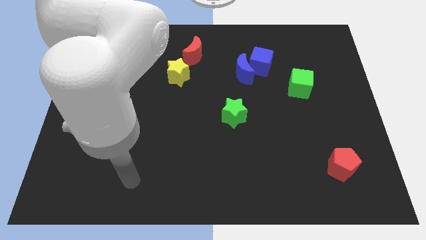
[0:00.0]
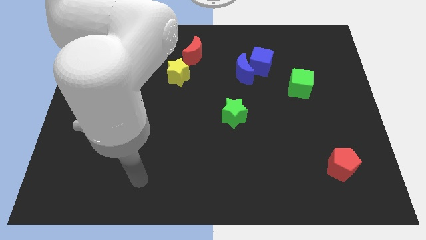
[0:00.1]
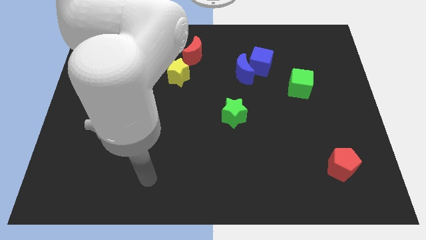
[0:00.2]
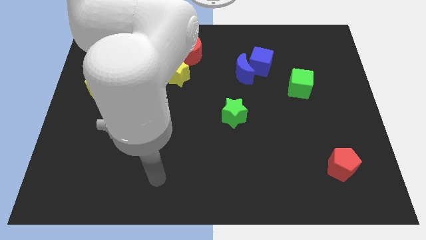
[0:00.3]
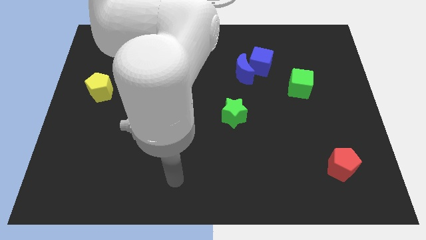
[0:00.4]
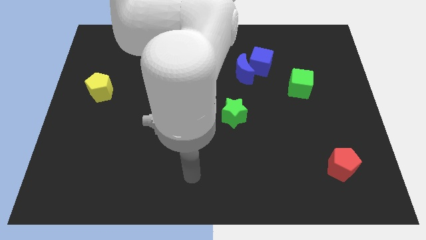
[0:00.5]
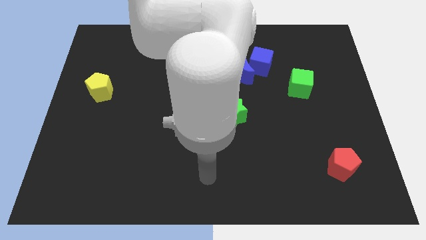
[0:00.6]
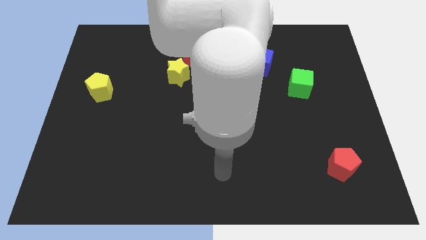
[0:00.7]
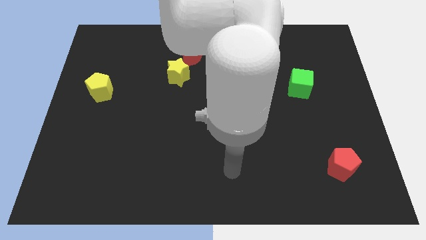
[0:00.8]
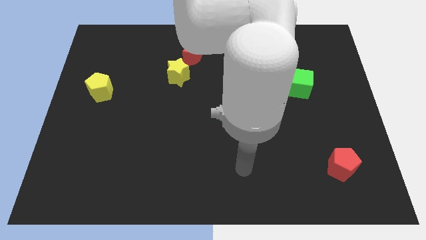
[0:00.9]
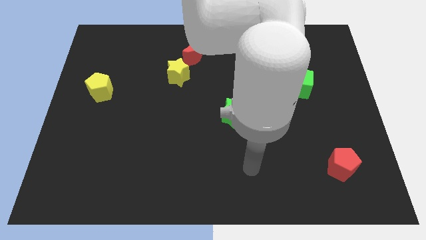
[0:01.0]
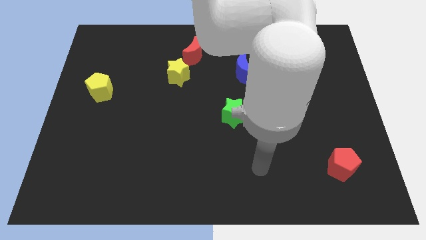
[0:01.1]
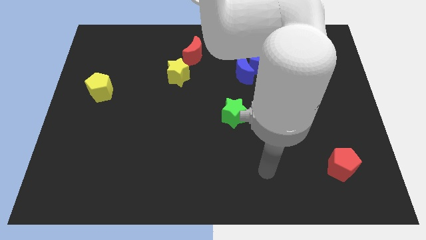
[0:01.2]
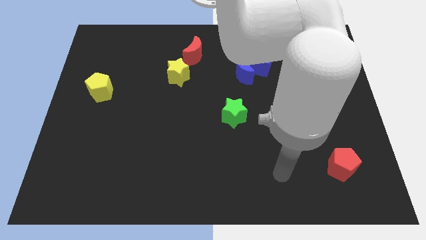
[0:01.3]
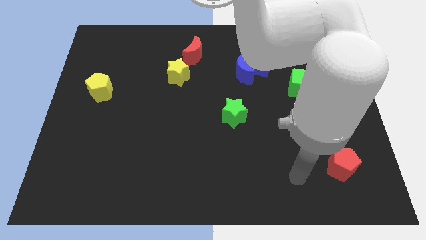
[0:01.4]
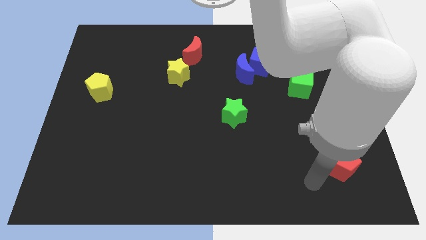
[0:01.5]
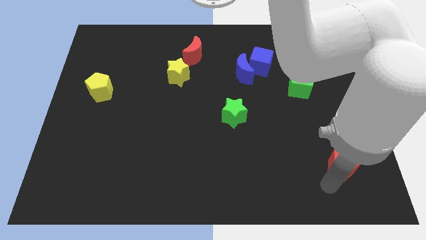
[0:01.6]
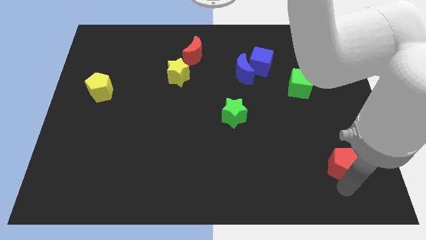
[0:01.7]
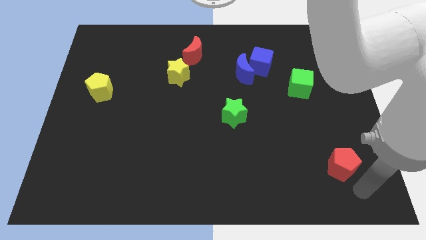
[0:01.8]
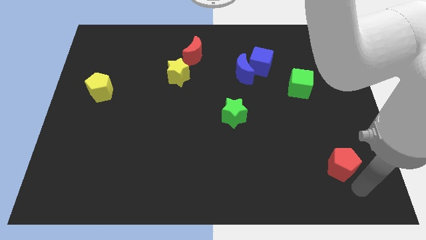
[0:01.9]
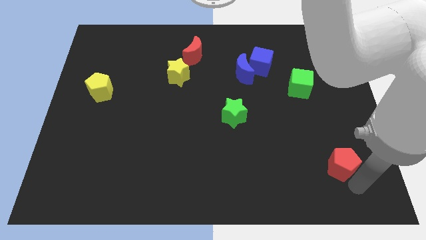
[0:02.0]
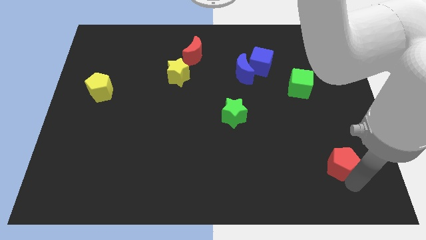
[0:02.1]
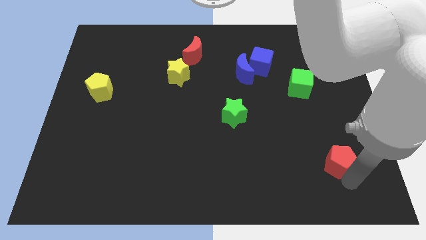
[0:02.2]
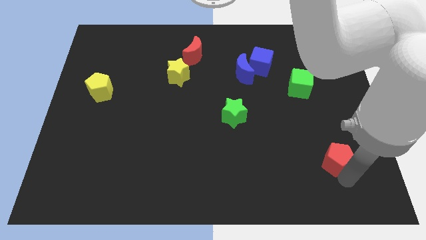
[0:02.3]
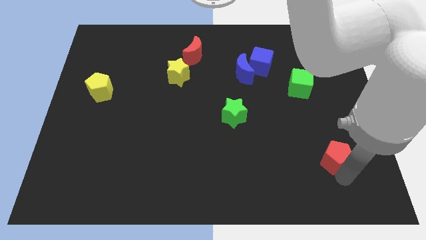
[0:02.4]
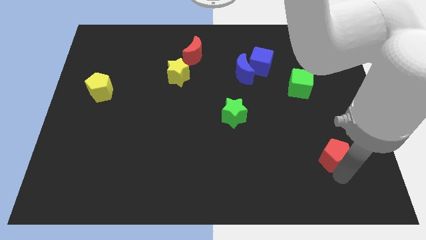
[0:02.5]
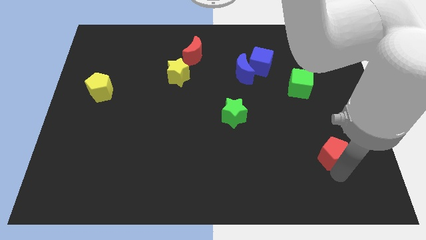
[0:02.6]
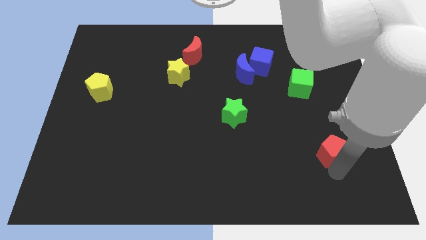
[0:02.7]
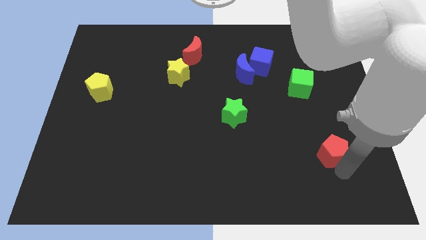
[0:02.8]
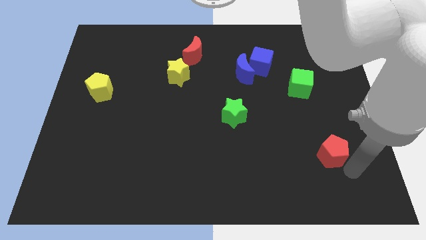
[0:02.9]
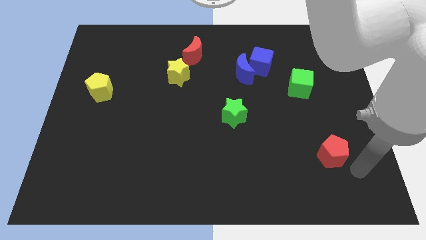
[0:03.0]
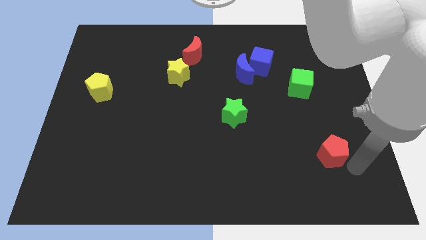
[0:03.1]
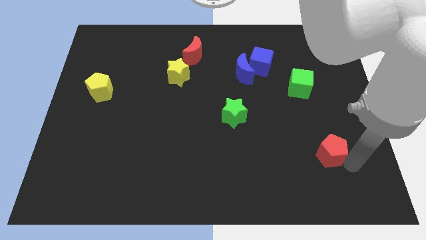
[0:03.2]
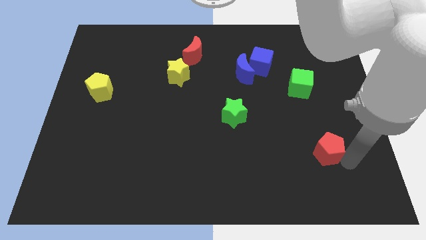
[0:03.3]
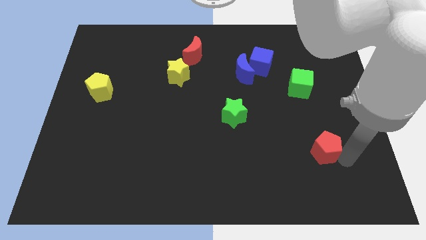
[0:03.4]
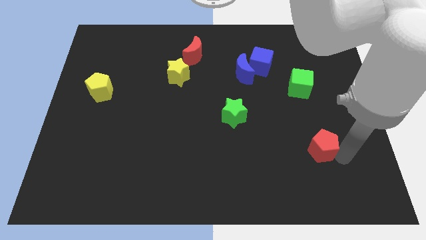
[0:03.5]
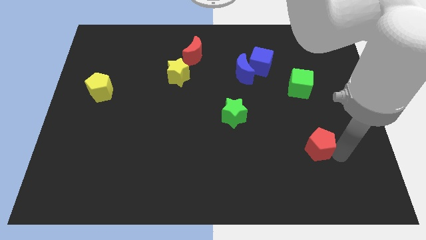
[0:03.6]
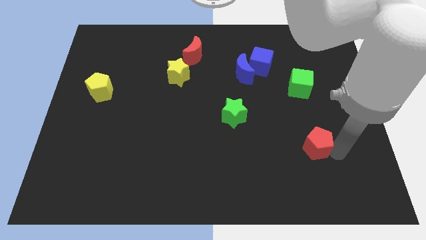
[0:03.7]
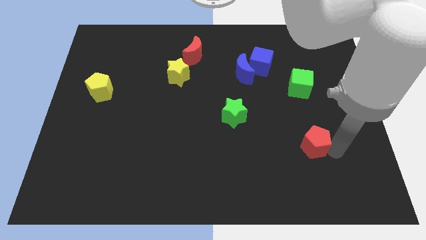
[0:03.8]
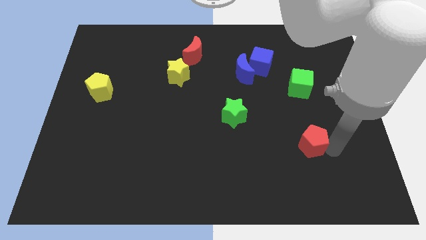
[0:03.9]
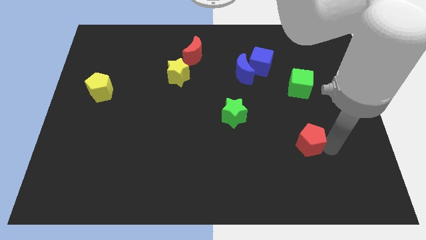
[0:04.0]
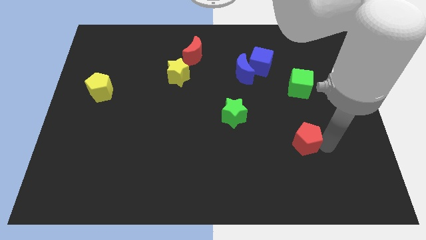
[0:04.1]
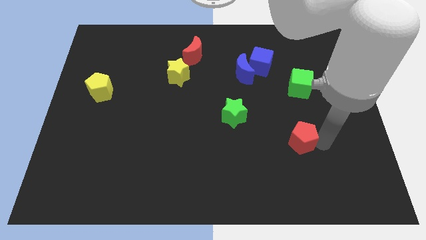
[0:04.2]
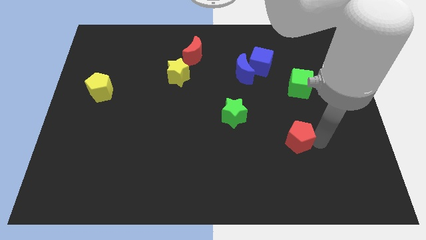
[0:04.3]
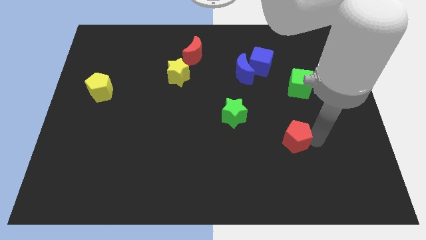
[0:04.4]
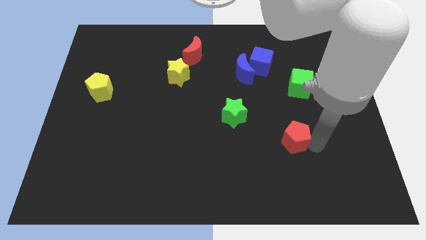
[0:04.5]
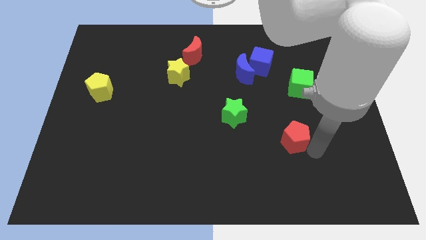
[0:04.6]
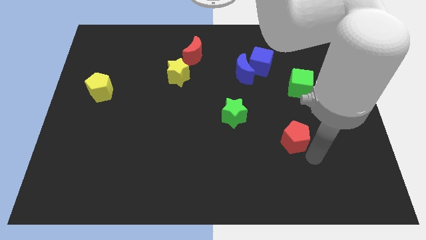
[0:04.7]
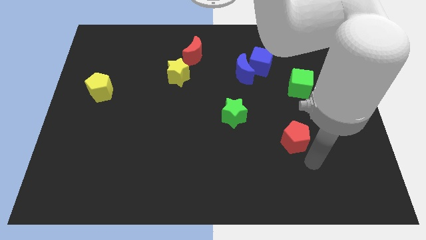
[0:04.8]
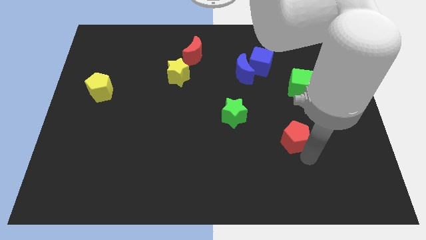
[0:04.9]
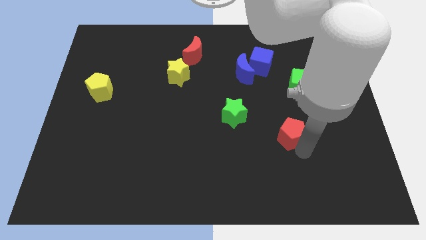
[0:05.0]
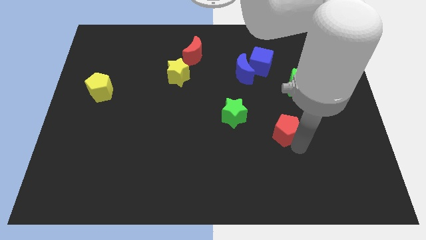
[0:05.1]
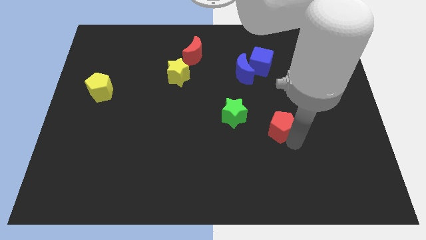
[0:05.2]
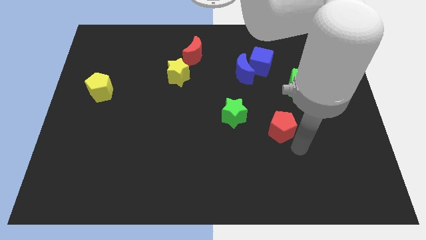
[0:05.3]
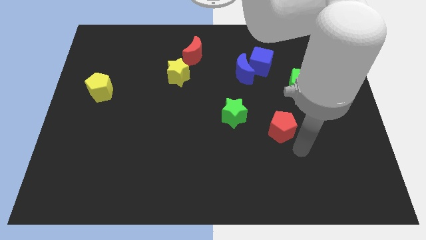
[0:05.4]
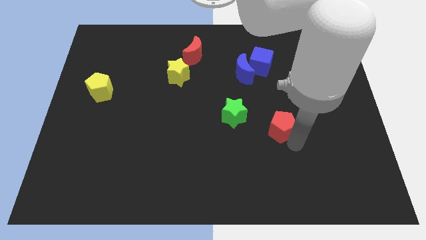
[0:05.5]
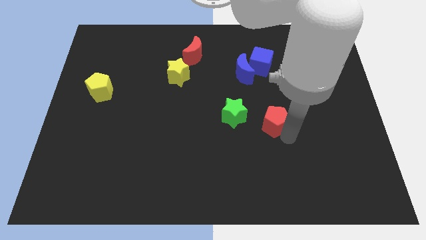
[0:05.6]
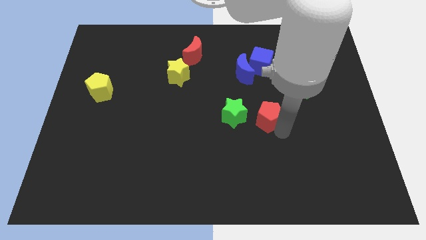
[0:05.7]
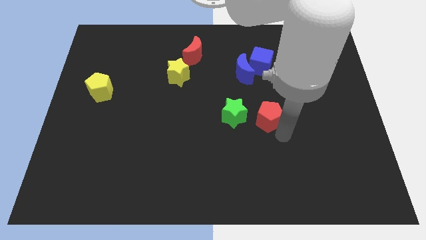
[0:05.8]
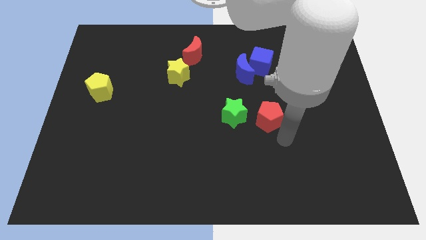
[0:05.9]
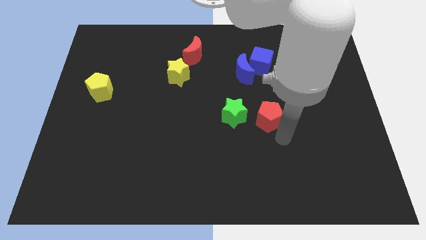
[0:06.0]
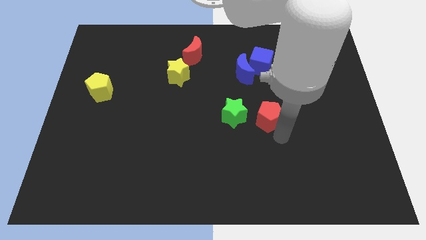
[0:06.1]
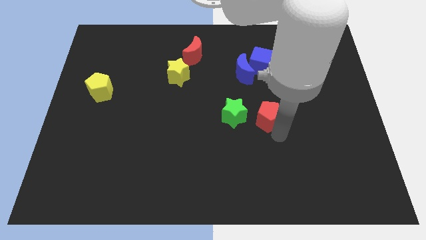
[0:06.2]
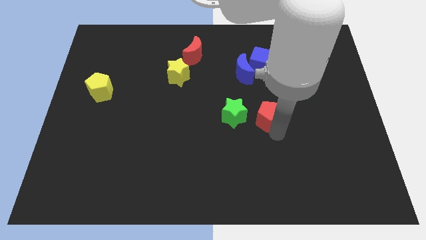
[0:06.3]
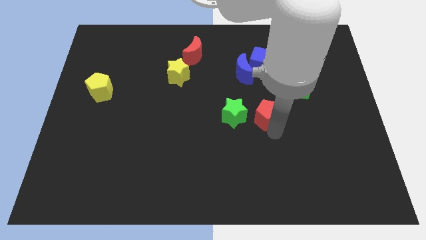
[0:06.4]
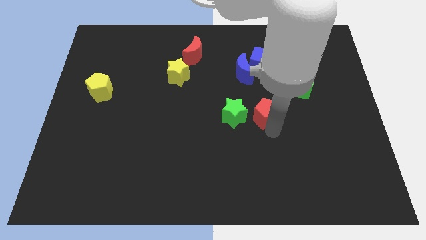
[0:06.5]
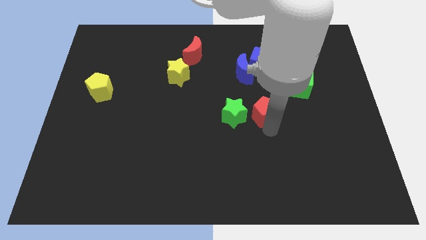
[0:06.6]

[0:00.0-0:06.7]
slide the red pentagon up and then to the left

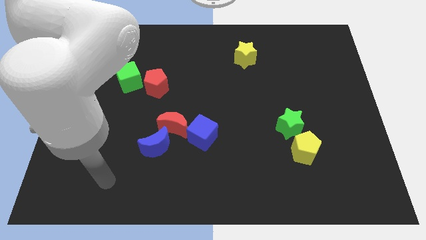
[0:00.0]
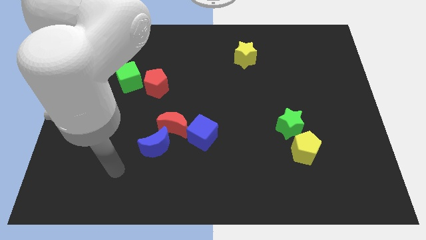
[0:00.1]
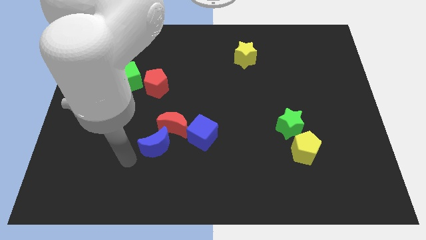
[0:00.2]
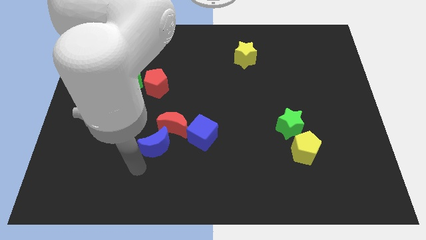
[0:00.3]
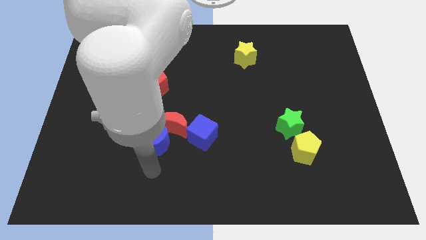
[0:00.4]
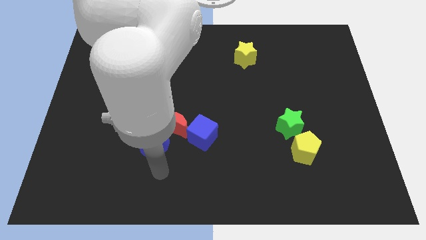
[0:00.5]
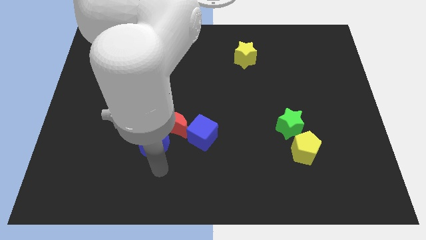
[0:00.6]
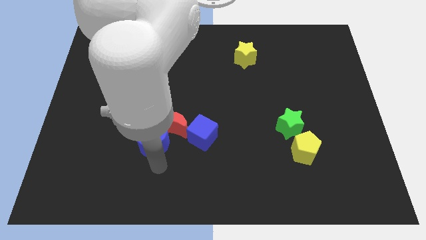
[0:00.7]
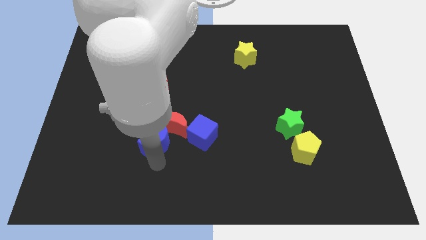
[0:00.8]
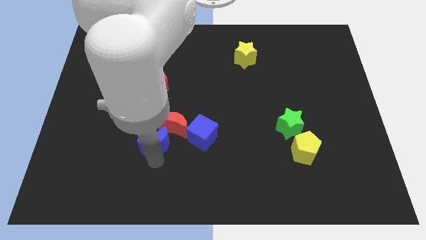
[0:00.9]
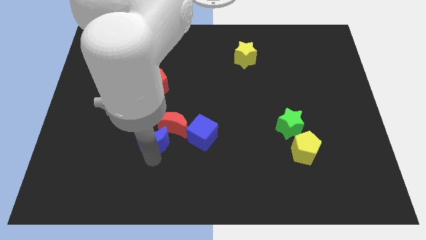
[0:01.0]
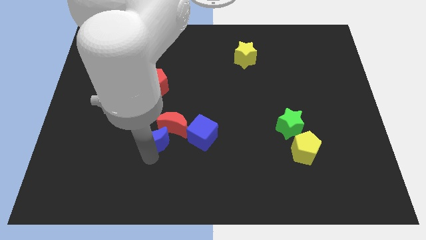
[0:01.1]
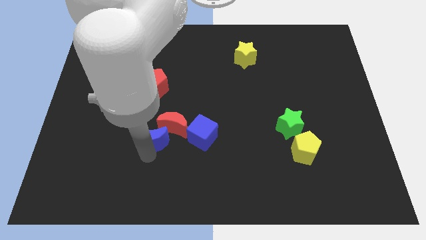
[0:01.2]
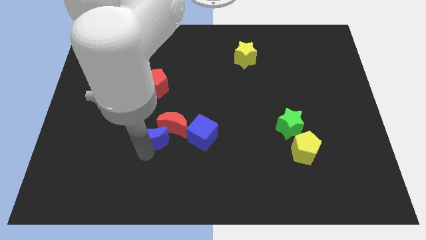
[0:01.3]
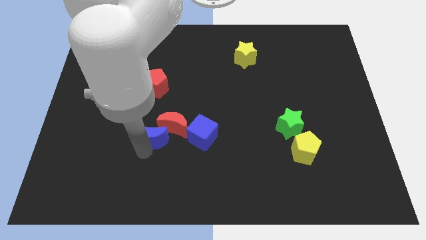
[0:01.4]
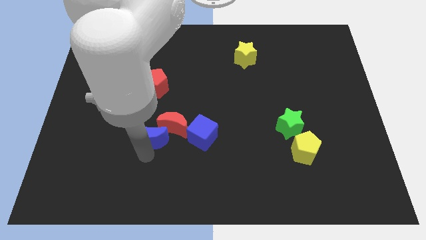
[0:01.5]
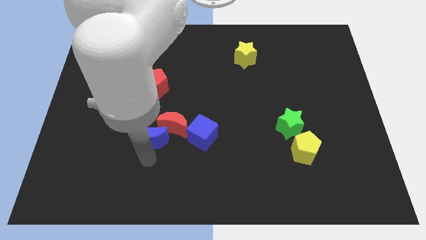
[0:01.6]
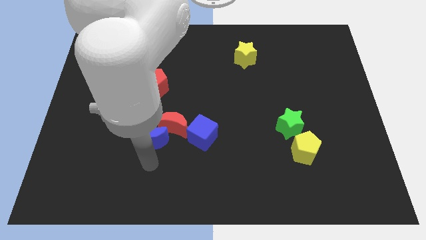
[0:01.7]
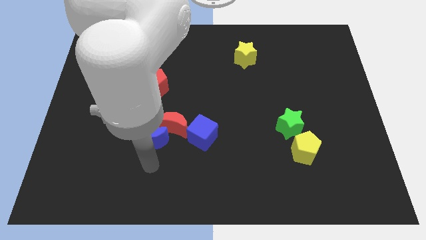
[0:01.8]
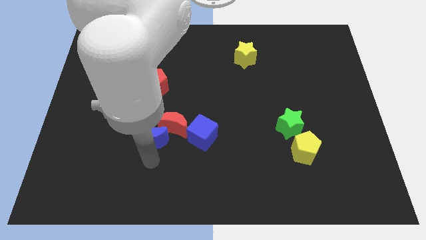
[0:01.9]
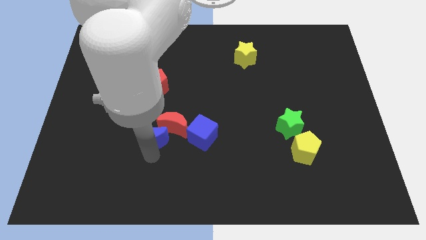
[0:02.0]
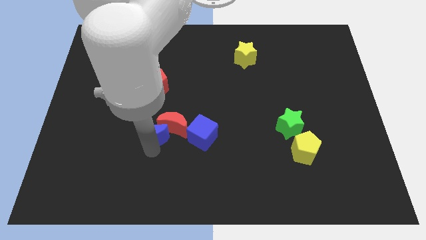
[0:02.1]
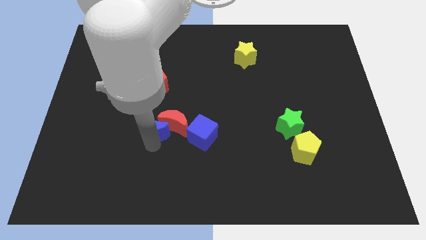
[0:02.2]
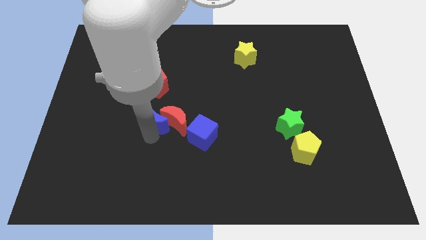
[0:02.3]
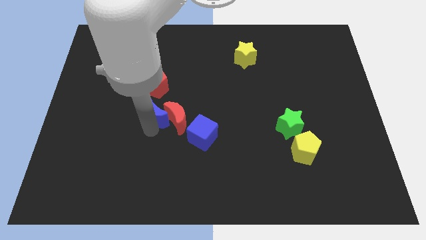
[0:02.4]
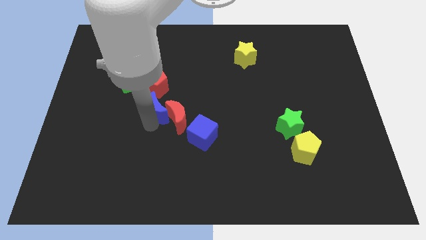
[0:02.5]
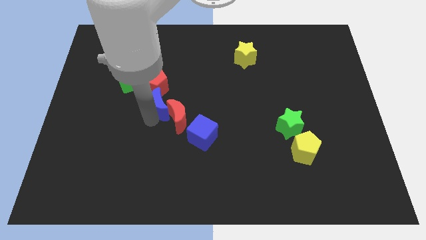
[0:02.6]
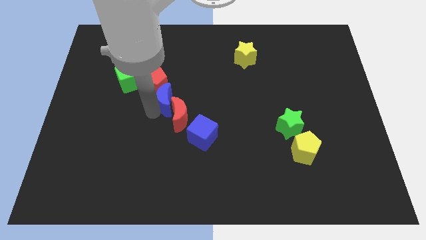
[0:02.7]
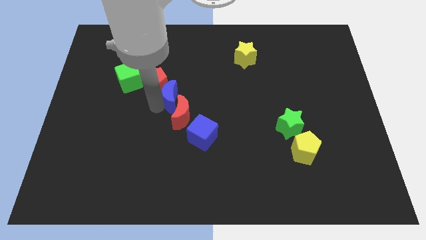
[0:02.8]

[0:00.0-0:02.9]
slide the blue moon somewhat upwards and then to the right
